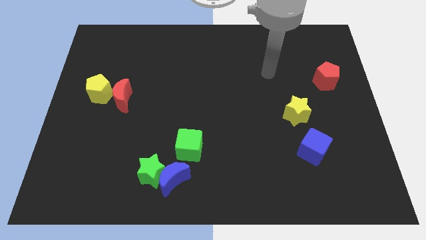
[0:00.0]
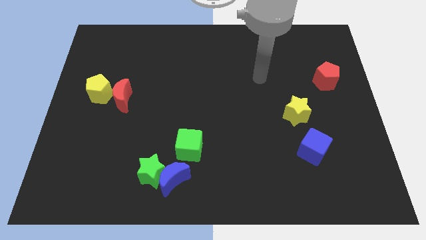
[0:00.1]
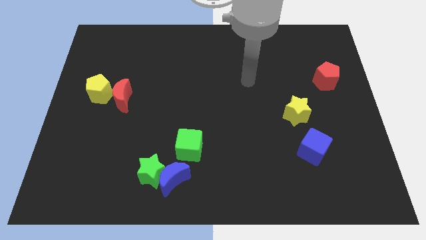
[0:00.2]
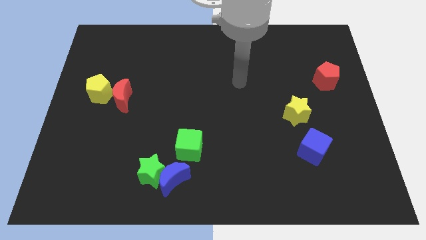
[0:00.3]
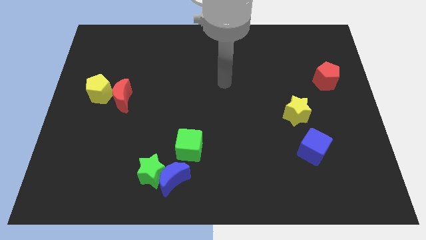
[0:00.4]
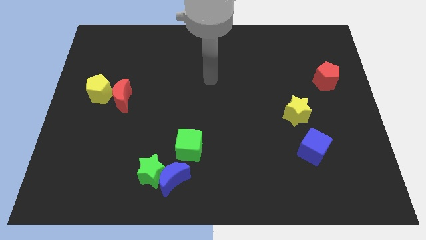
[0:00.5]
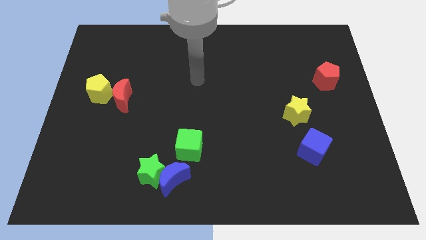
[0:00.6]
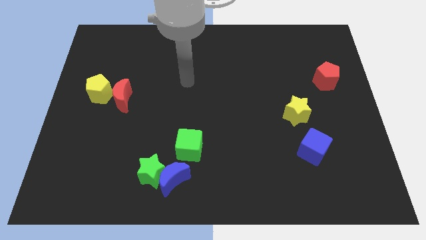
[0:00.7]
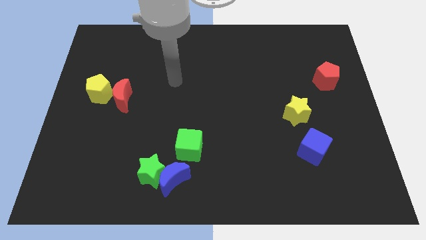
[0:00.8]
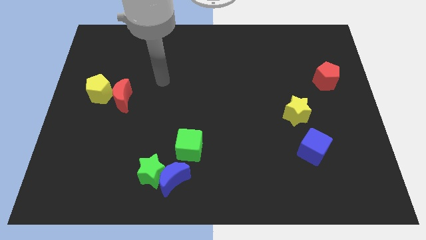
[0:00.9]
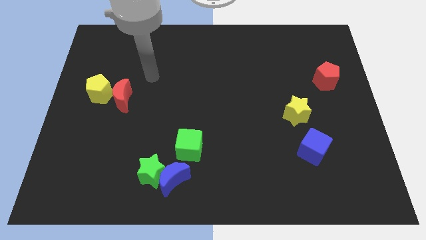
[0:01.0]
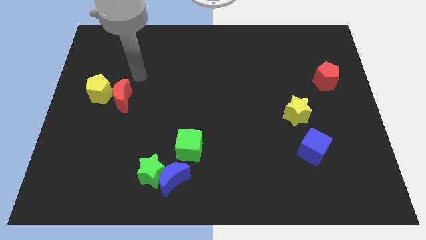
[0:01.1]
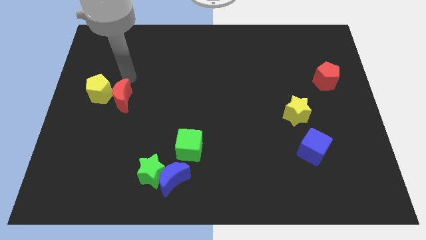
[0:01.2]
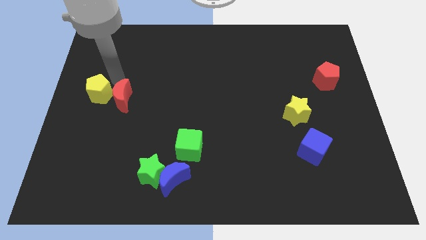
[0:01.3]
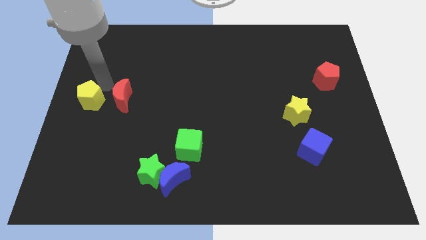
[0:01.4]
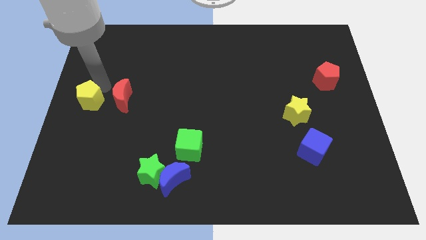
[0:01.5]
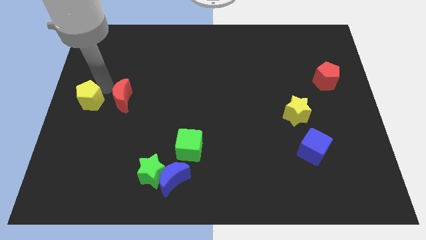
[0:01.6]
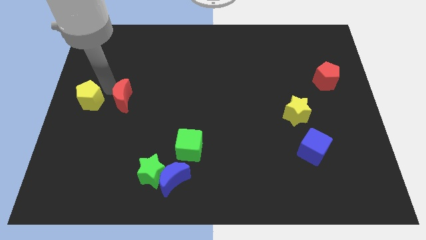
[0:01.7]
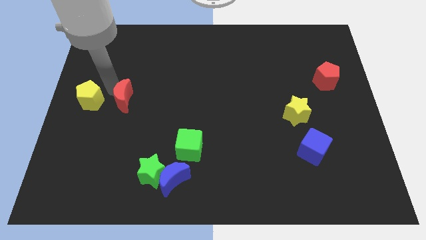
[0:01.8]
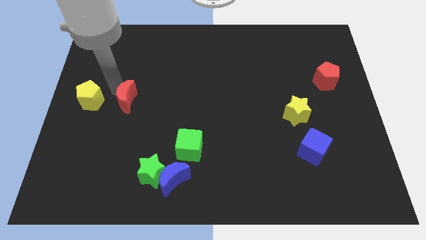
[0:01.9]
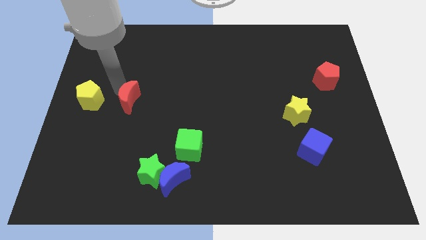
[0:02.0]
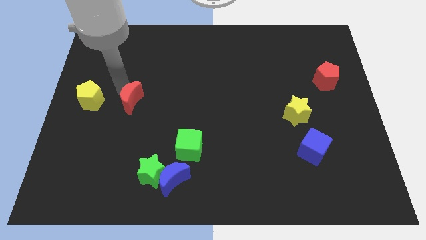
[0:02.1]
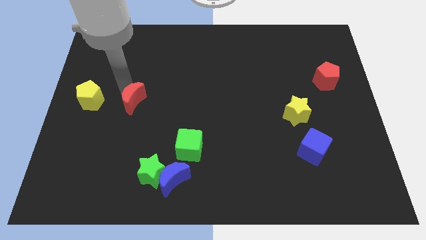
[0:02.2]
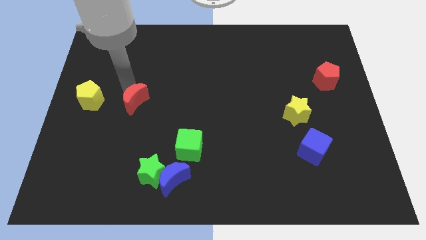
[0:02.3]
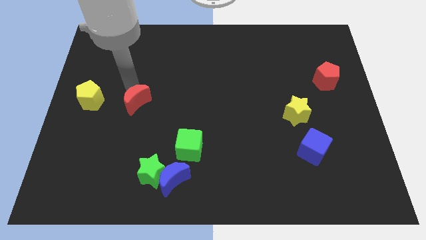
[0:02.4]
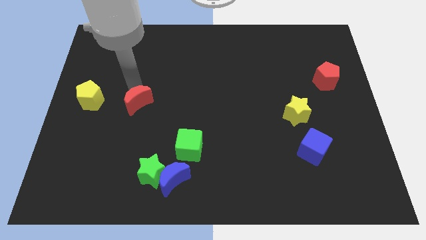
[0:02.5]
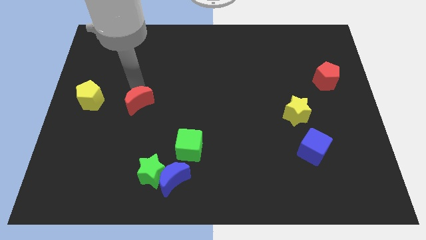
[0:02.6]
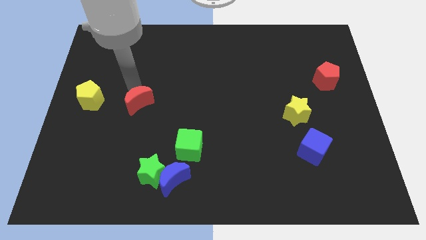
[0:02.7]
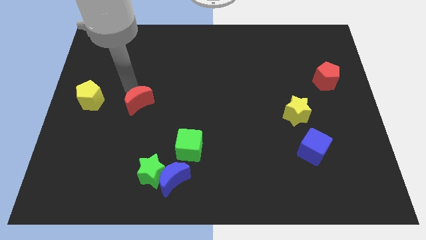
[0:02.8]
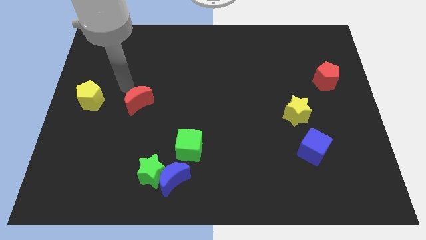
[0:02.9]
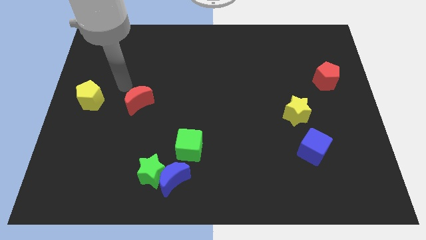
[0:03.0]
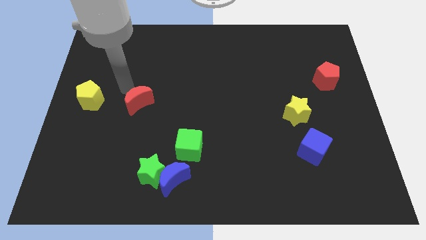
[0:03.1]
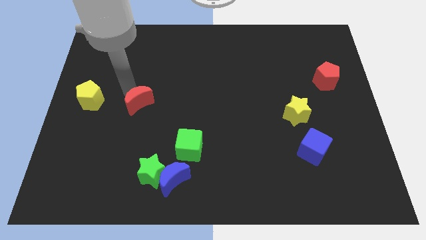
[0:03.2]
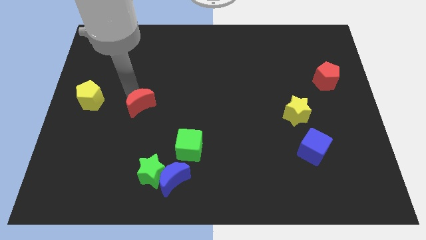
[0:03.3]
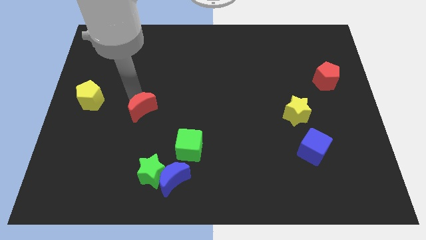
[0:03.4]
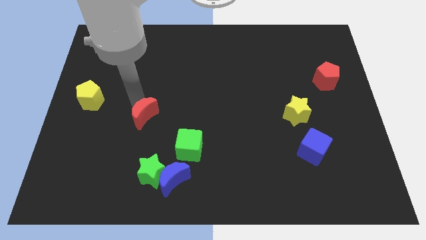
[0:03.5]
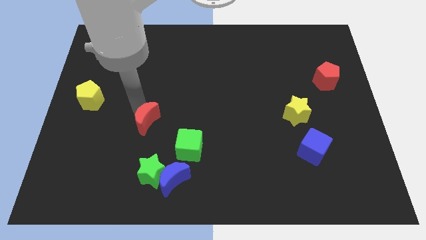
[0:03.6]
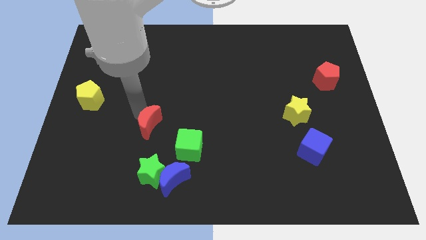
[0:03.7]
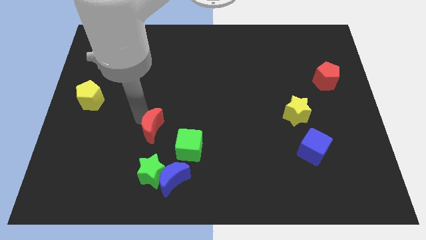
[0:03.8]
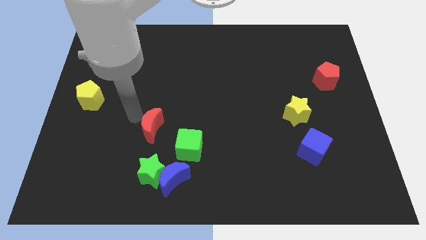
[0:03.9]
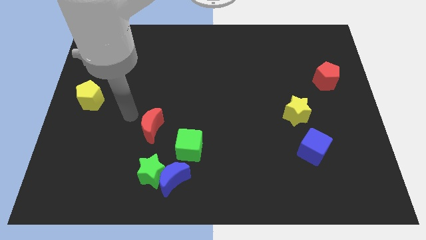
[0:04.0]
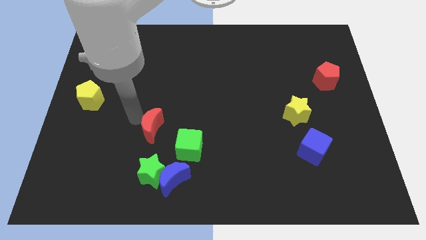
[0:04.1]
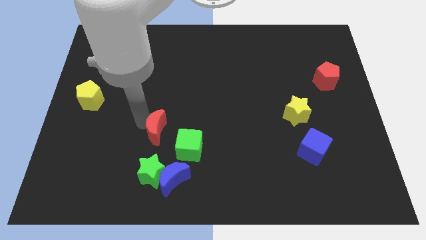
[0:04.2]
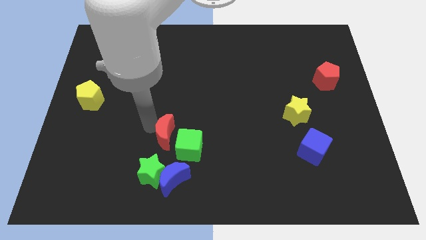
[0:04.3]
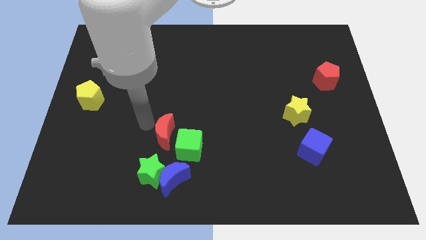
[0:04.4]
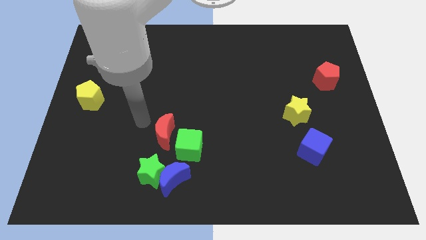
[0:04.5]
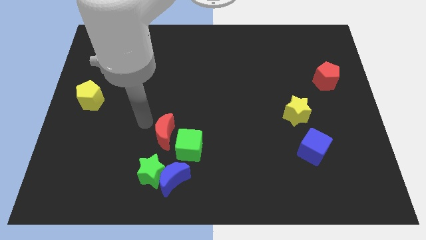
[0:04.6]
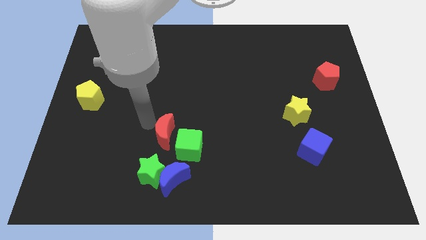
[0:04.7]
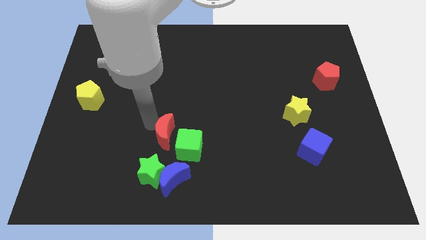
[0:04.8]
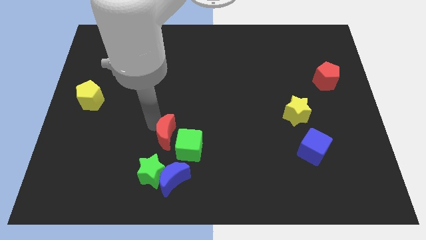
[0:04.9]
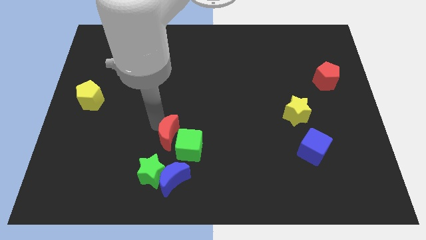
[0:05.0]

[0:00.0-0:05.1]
slide the red moon to the green cube

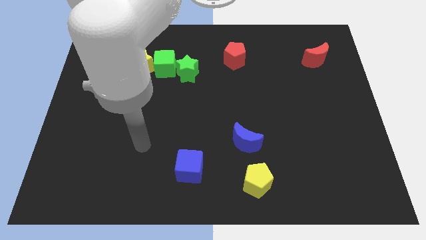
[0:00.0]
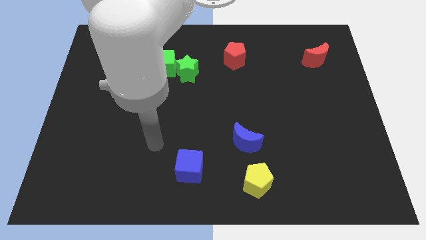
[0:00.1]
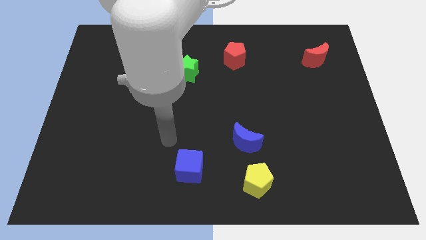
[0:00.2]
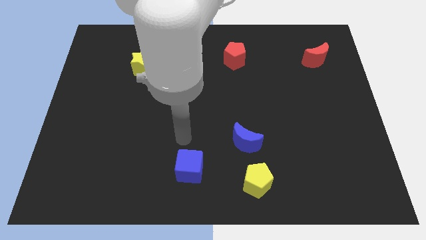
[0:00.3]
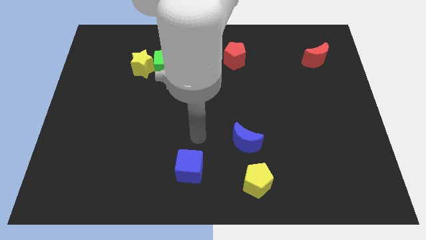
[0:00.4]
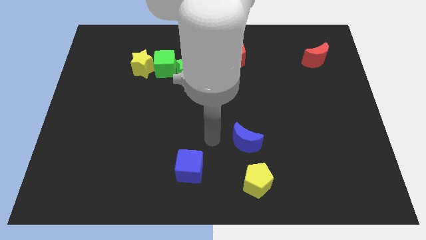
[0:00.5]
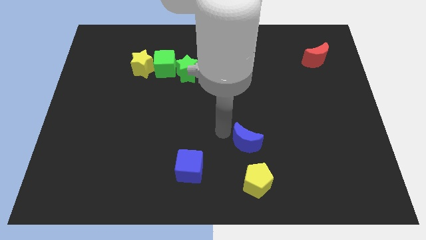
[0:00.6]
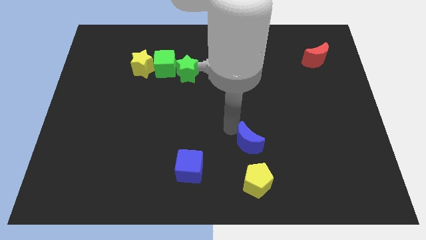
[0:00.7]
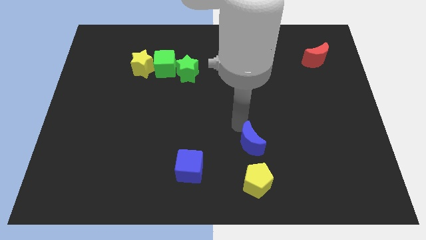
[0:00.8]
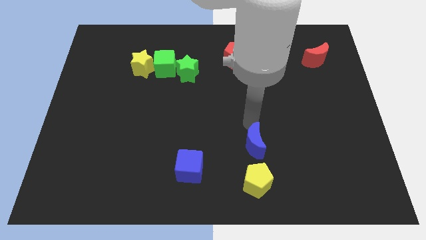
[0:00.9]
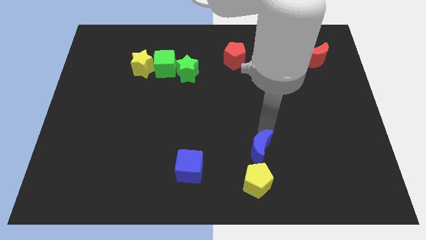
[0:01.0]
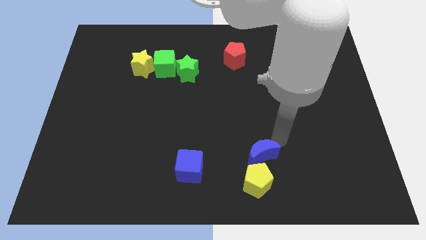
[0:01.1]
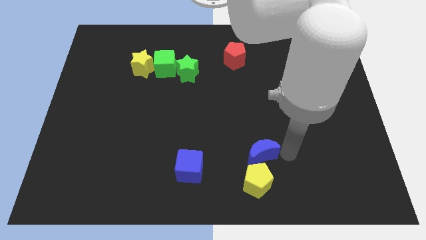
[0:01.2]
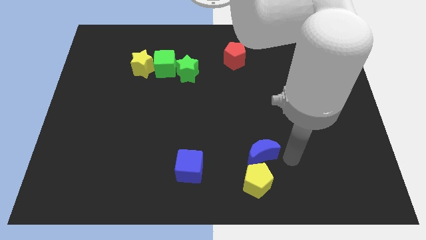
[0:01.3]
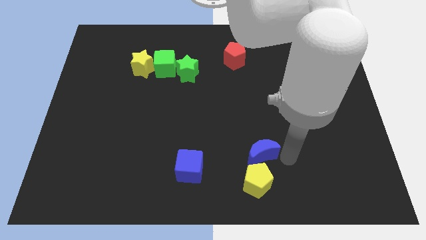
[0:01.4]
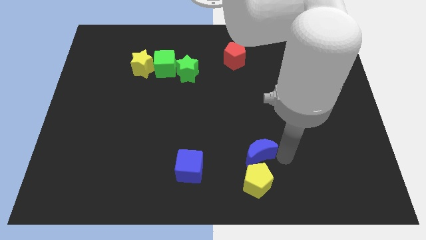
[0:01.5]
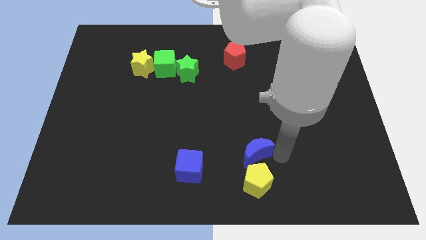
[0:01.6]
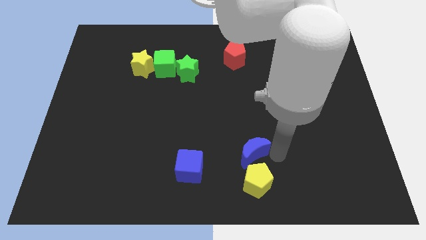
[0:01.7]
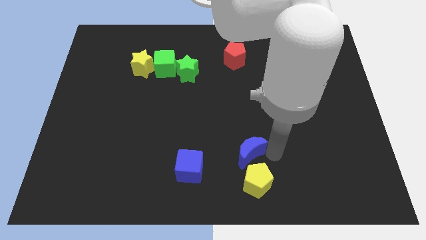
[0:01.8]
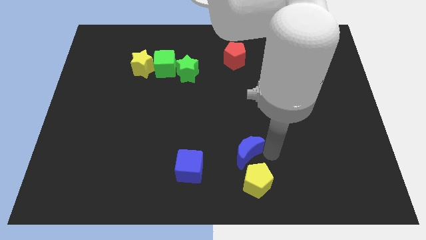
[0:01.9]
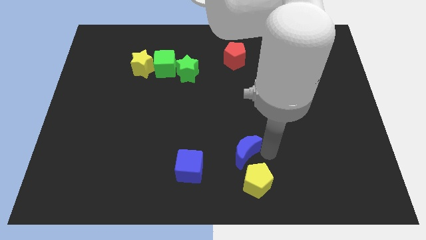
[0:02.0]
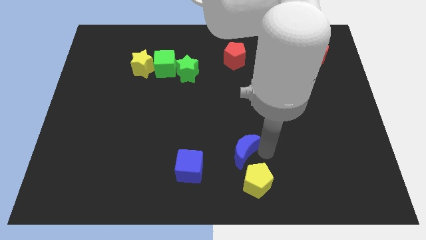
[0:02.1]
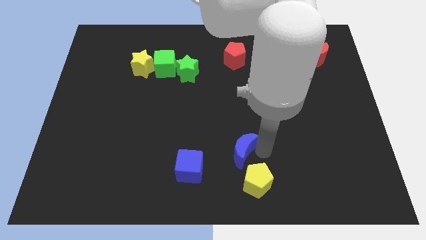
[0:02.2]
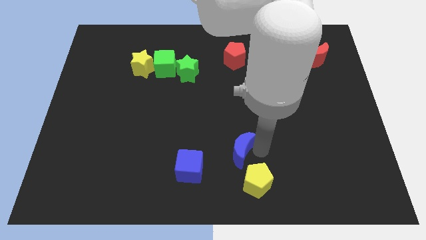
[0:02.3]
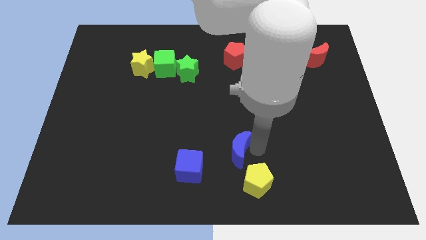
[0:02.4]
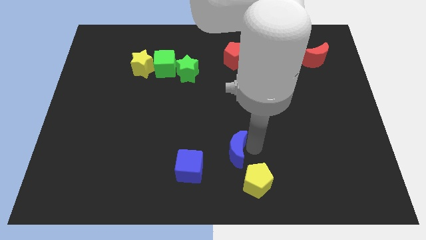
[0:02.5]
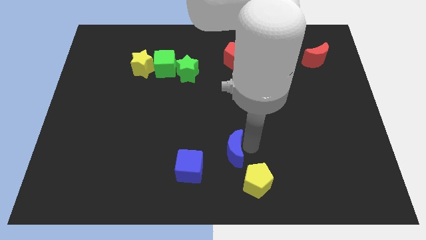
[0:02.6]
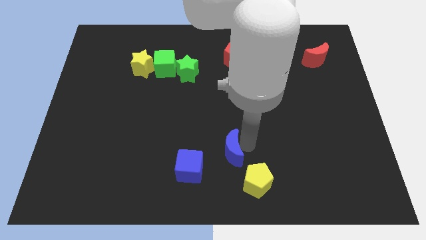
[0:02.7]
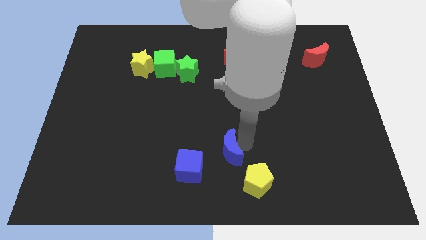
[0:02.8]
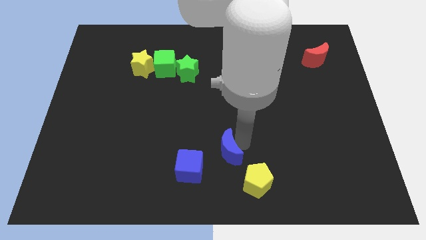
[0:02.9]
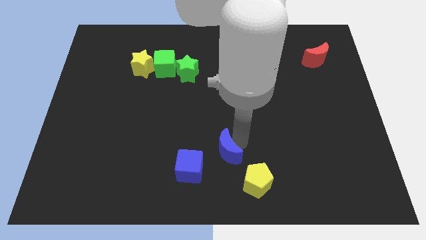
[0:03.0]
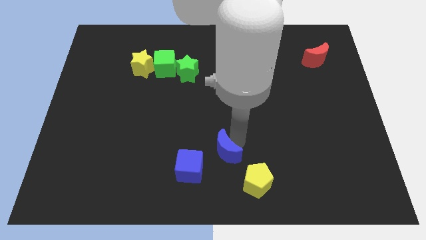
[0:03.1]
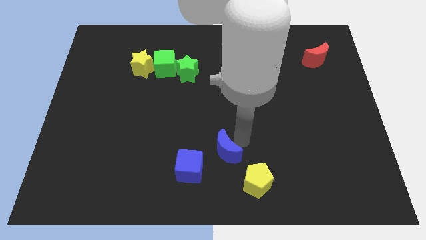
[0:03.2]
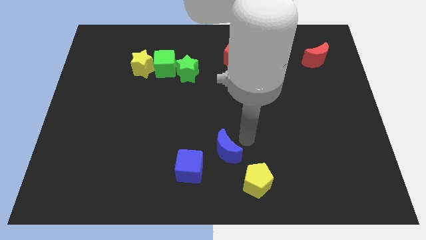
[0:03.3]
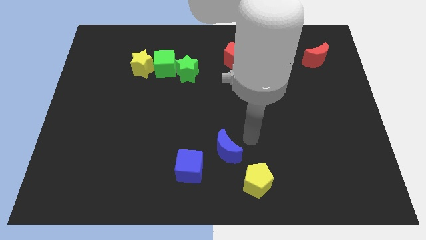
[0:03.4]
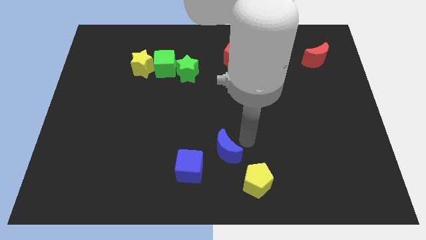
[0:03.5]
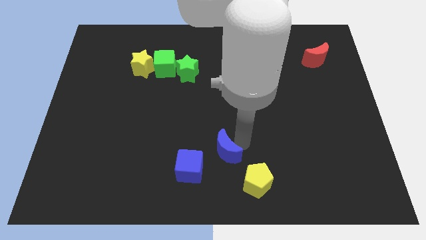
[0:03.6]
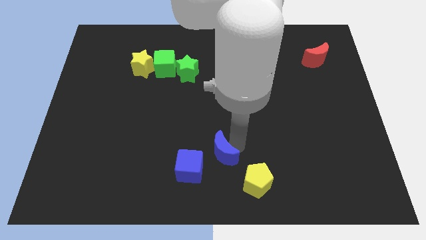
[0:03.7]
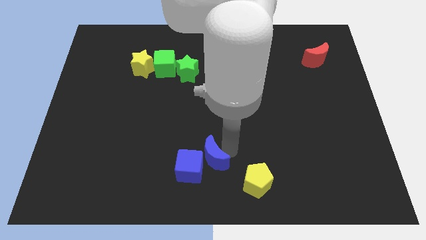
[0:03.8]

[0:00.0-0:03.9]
put the blue moon to the blue cube
